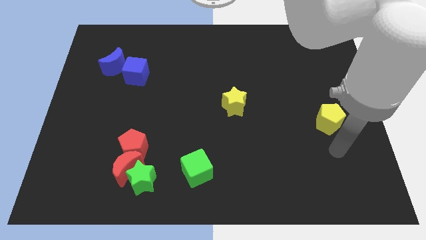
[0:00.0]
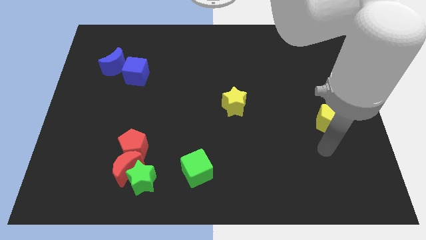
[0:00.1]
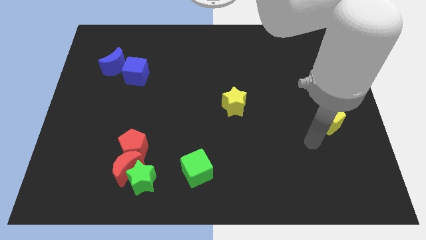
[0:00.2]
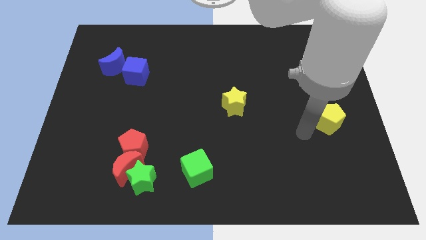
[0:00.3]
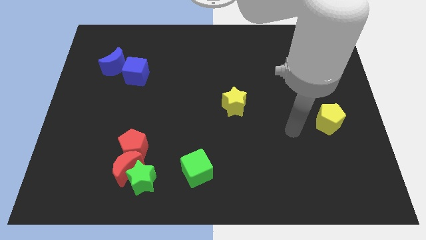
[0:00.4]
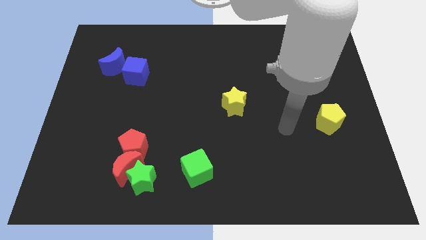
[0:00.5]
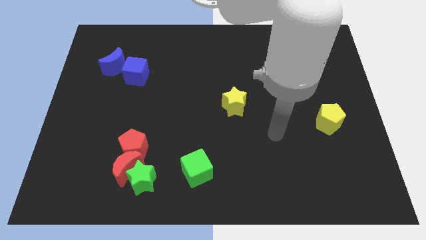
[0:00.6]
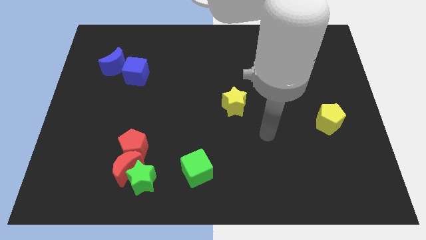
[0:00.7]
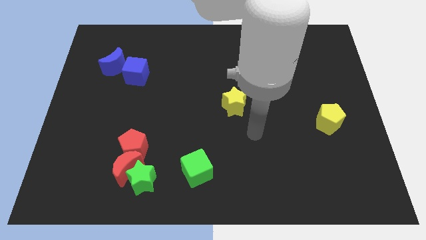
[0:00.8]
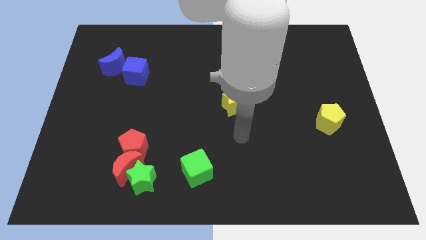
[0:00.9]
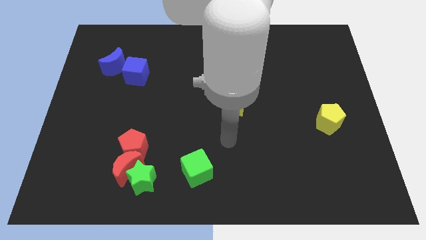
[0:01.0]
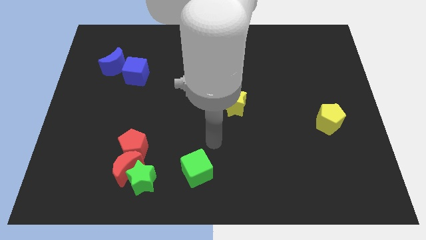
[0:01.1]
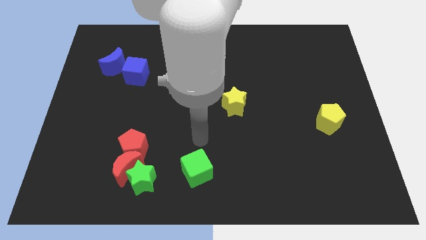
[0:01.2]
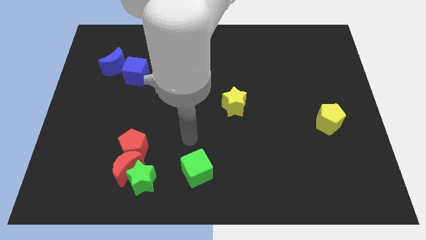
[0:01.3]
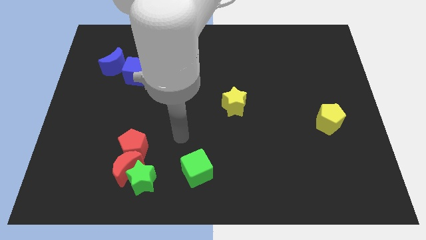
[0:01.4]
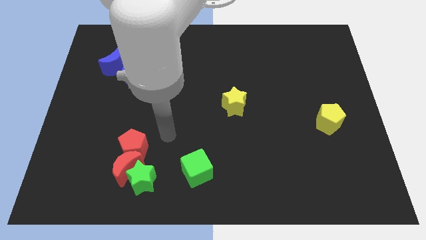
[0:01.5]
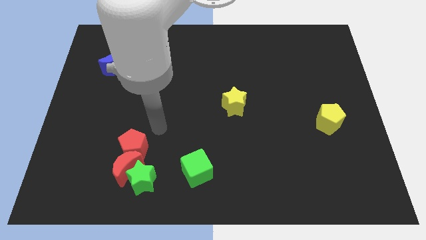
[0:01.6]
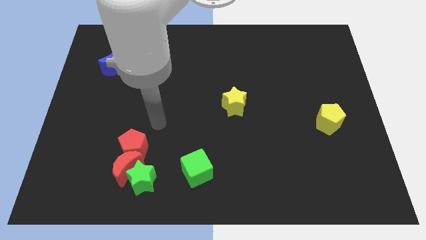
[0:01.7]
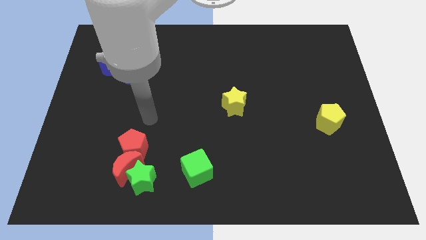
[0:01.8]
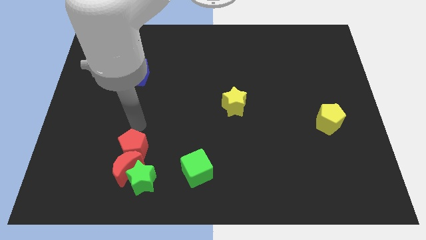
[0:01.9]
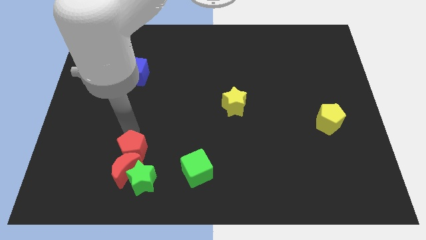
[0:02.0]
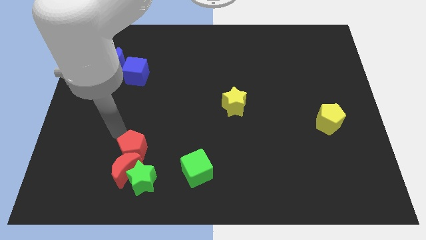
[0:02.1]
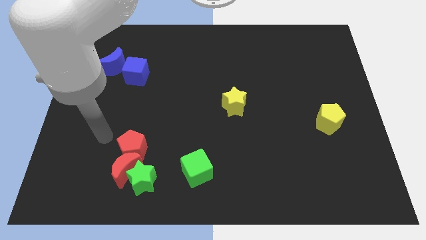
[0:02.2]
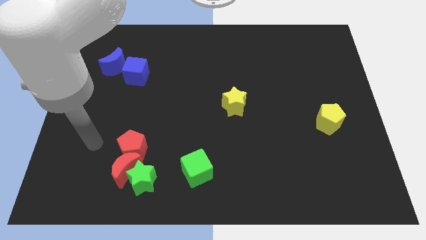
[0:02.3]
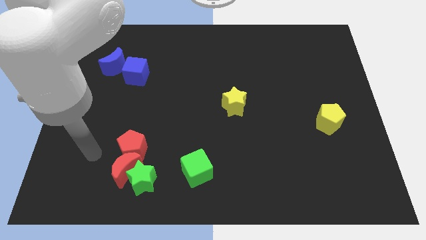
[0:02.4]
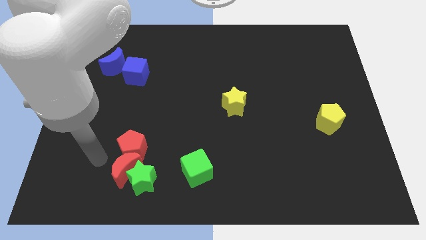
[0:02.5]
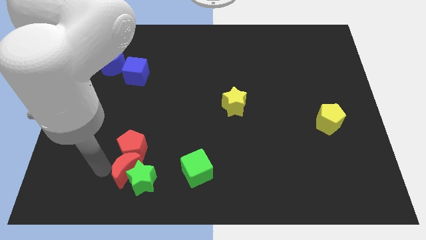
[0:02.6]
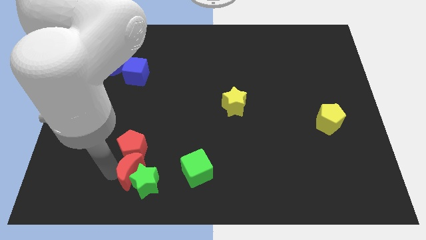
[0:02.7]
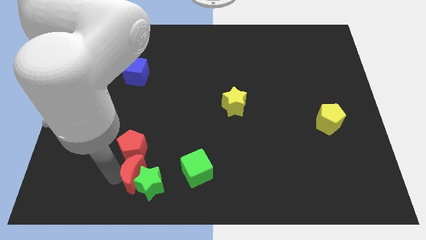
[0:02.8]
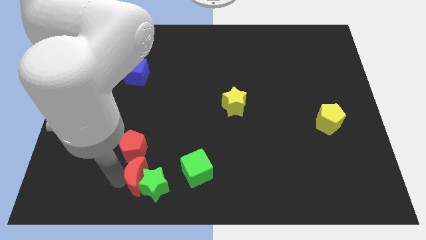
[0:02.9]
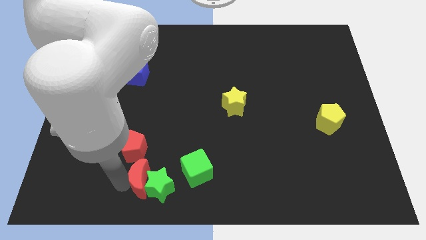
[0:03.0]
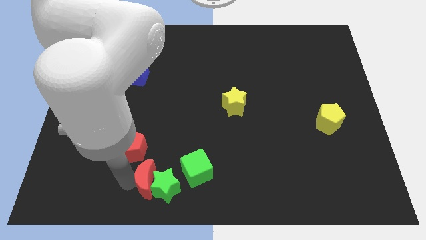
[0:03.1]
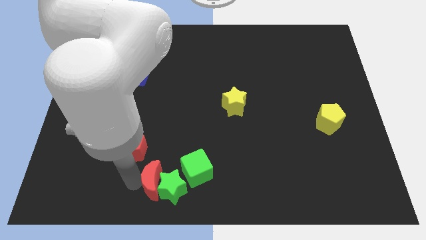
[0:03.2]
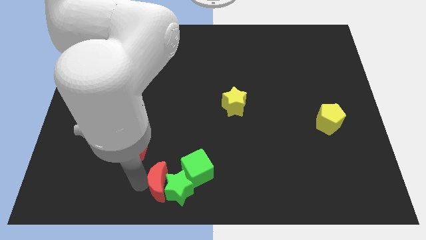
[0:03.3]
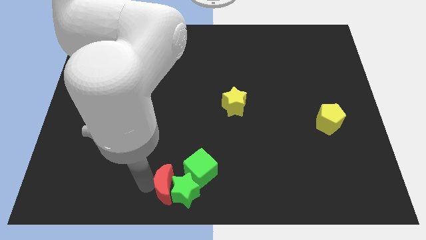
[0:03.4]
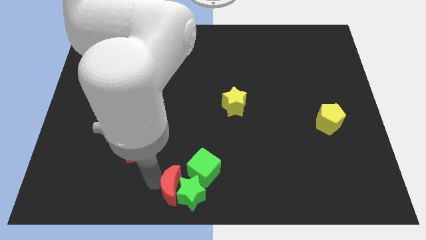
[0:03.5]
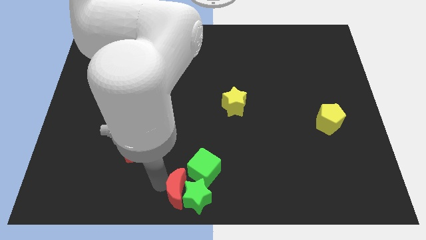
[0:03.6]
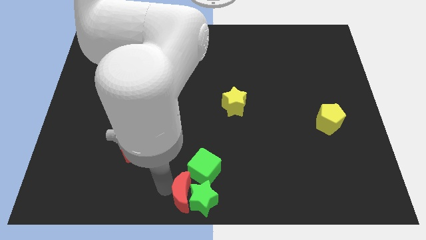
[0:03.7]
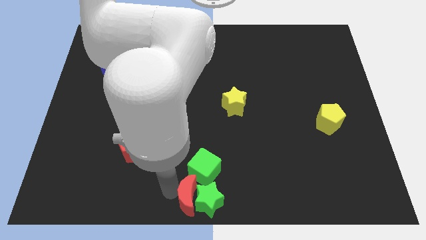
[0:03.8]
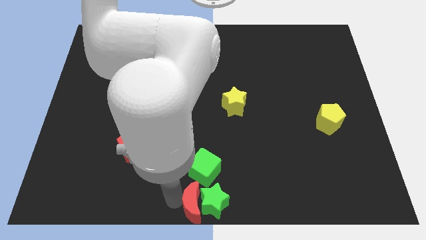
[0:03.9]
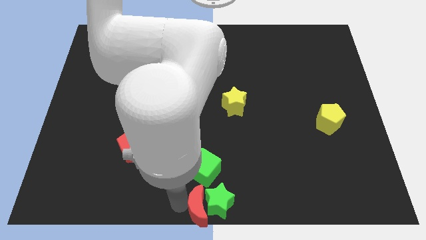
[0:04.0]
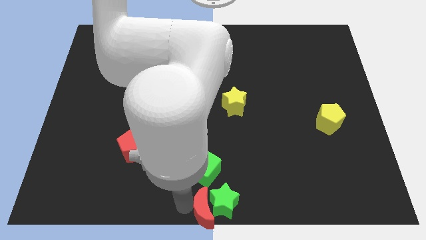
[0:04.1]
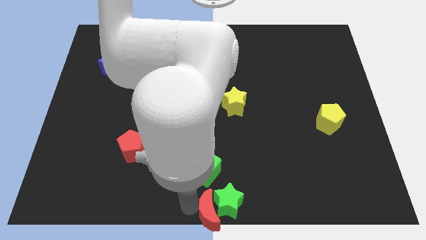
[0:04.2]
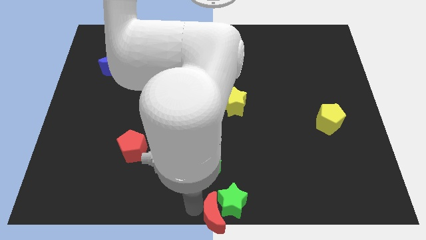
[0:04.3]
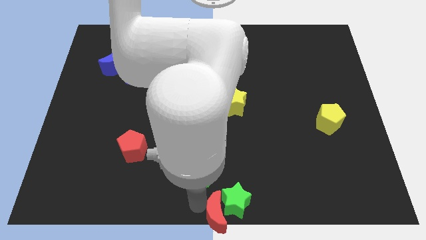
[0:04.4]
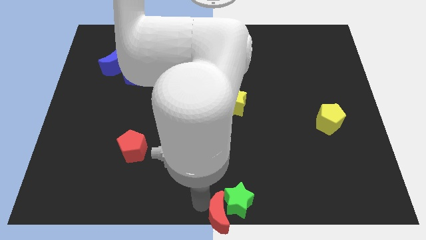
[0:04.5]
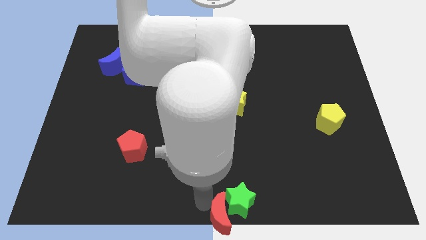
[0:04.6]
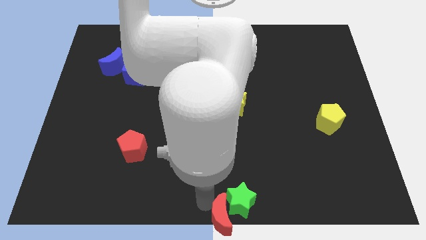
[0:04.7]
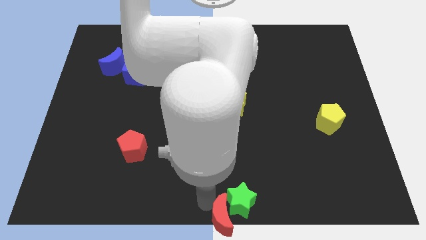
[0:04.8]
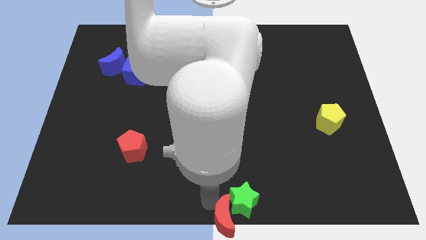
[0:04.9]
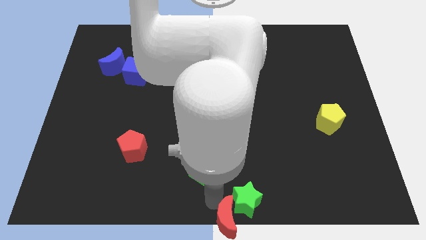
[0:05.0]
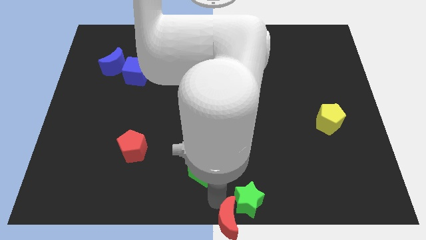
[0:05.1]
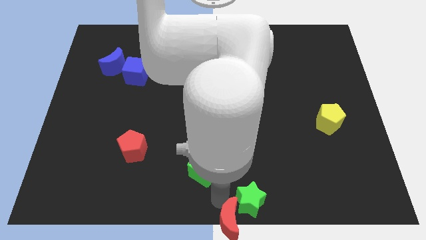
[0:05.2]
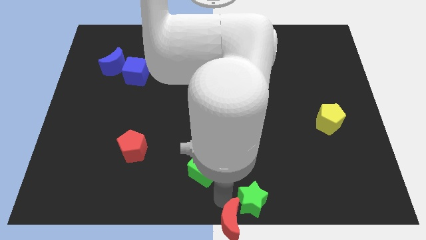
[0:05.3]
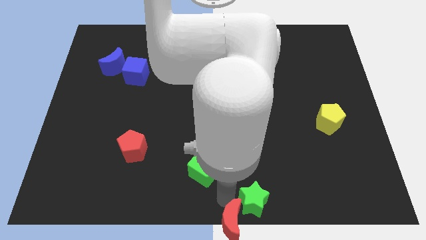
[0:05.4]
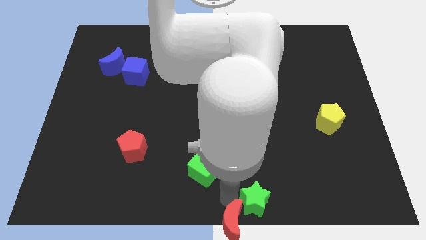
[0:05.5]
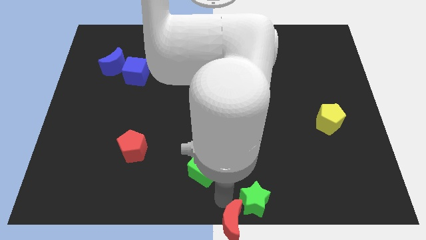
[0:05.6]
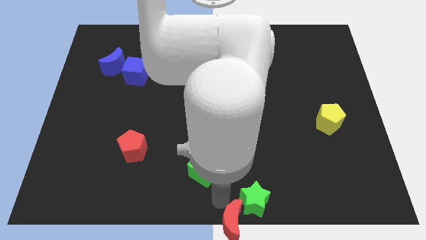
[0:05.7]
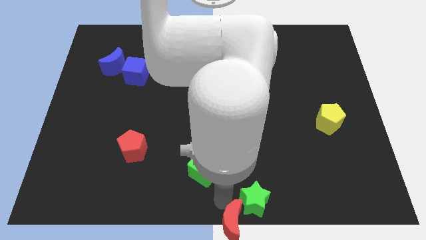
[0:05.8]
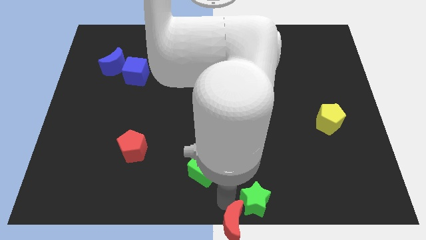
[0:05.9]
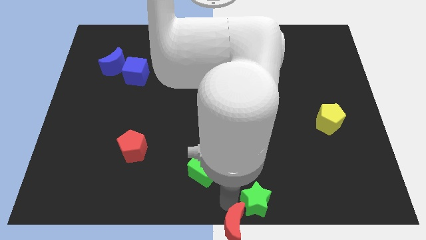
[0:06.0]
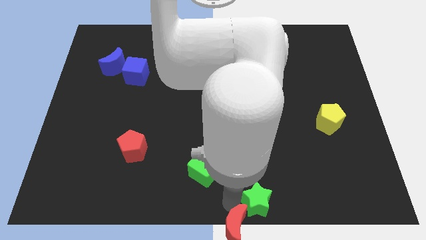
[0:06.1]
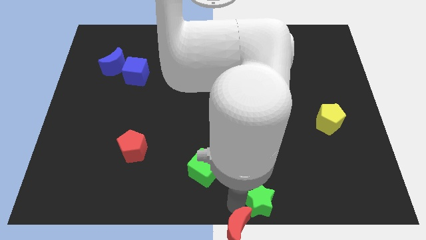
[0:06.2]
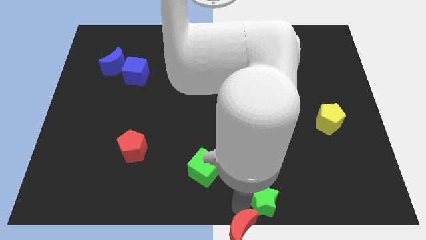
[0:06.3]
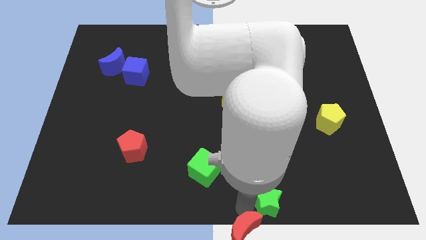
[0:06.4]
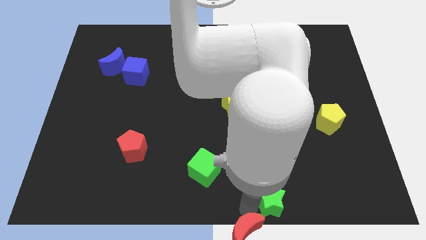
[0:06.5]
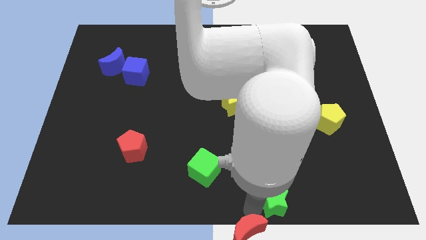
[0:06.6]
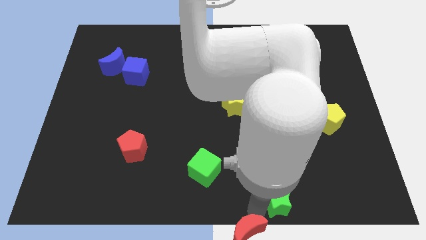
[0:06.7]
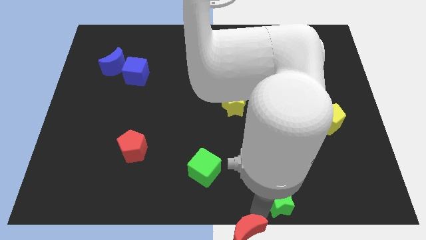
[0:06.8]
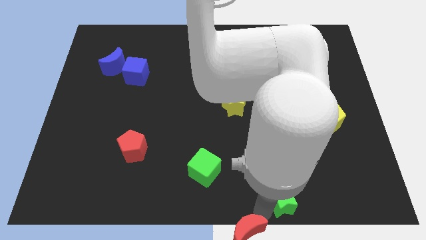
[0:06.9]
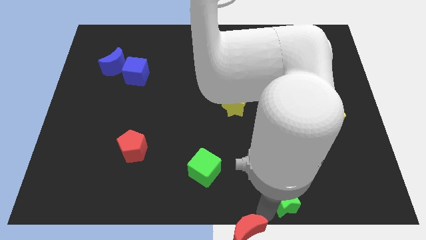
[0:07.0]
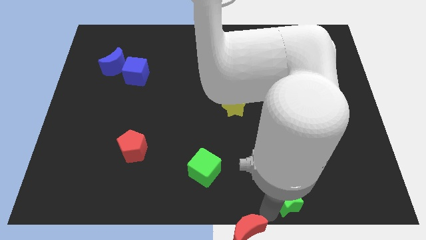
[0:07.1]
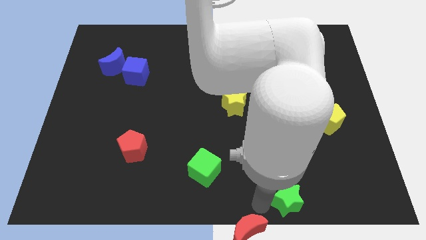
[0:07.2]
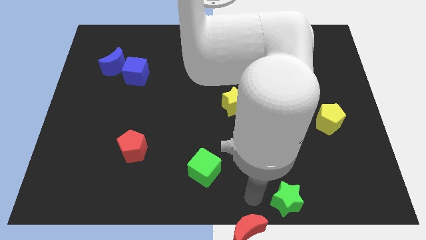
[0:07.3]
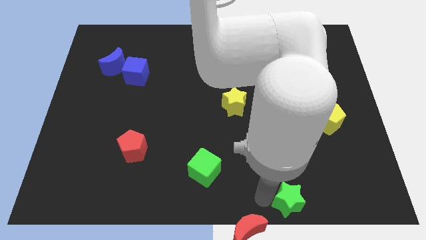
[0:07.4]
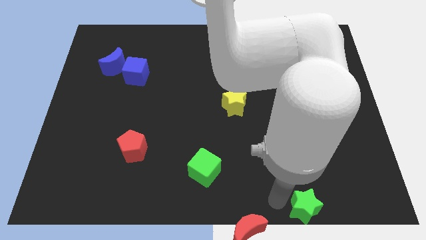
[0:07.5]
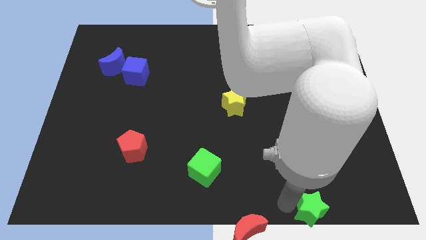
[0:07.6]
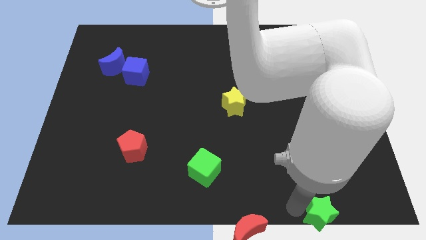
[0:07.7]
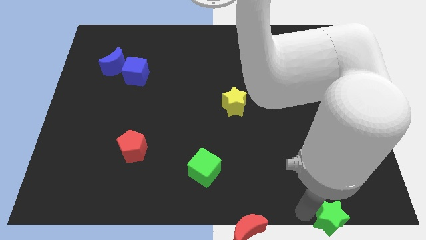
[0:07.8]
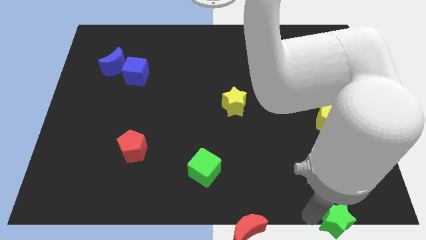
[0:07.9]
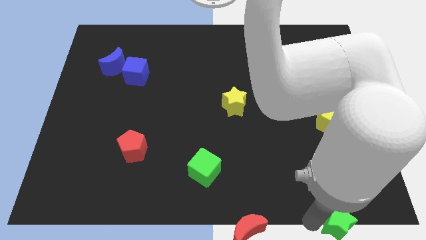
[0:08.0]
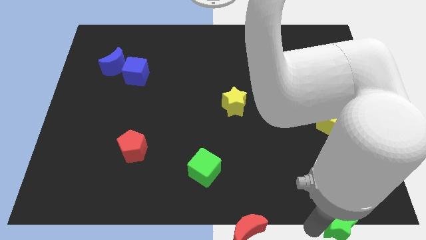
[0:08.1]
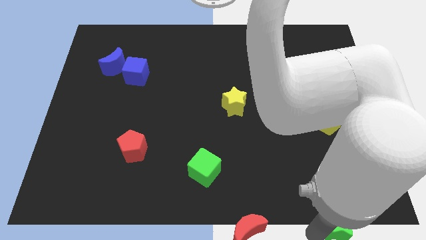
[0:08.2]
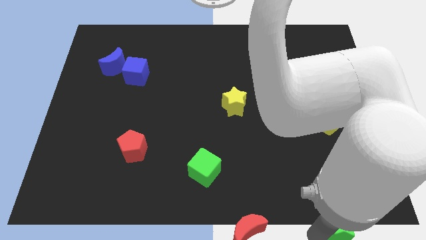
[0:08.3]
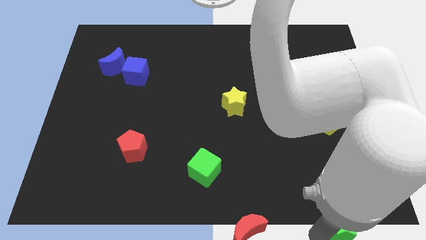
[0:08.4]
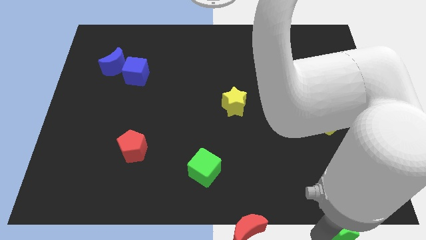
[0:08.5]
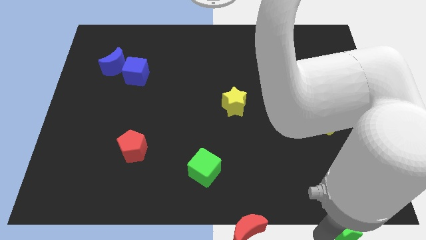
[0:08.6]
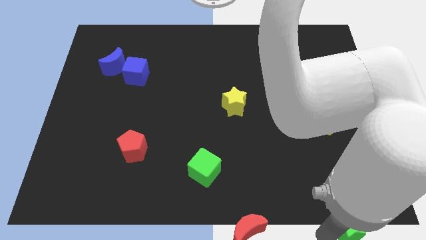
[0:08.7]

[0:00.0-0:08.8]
push the green star to the bottom right of the board
